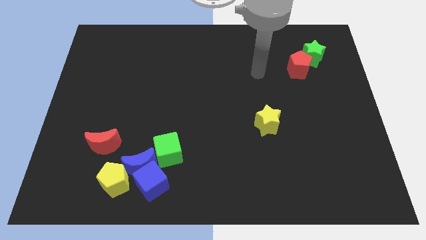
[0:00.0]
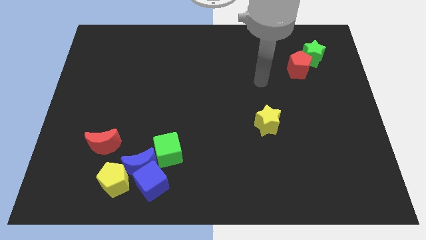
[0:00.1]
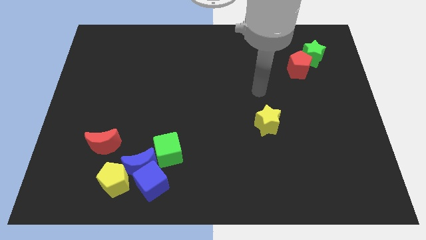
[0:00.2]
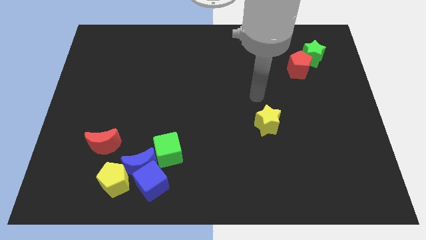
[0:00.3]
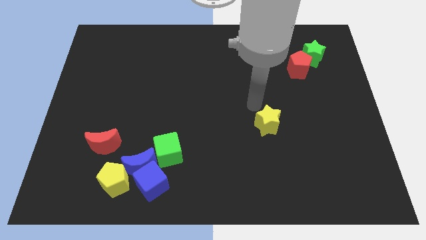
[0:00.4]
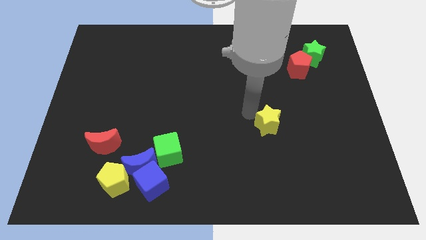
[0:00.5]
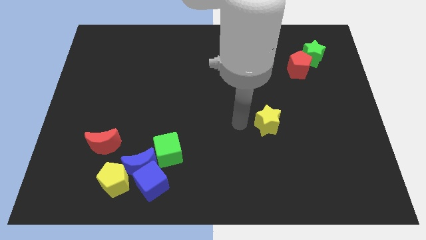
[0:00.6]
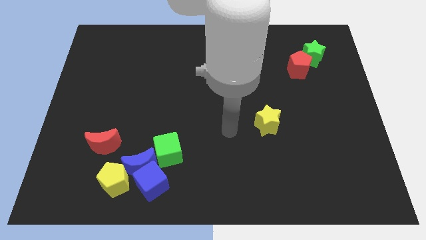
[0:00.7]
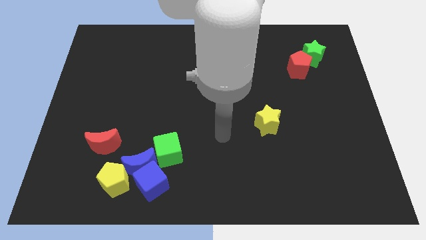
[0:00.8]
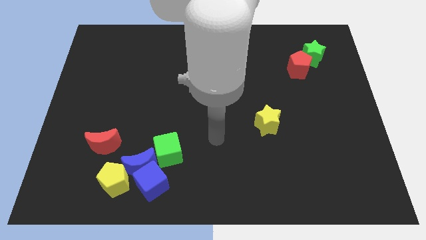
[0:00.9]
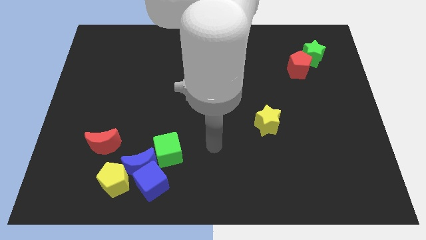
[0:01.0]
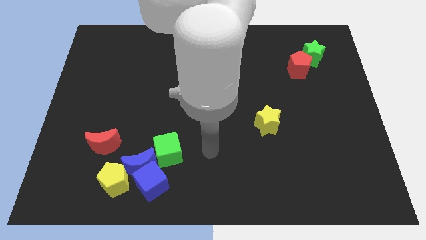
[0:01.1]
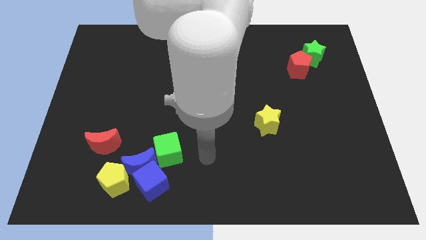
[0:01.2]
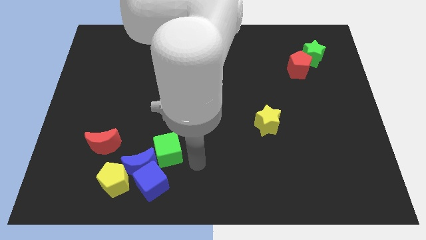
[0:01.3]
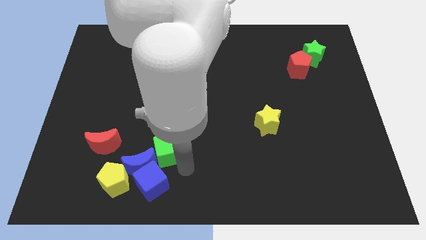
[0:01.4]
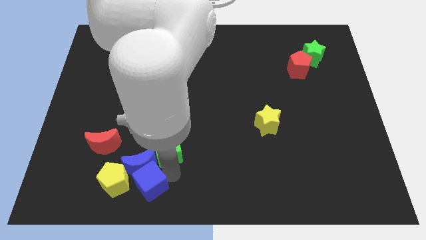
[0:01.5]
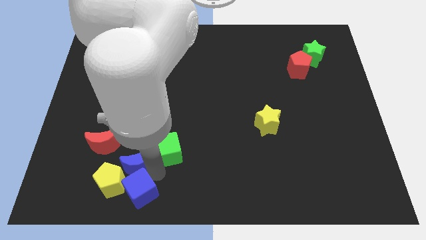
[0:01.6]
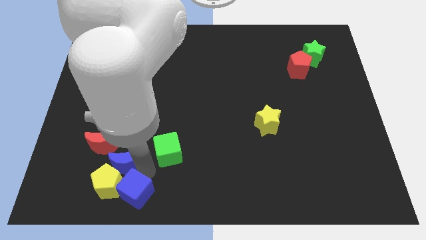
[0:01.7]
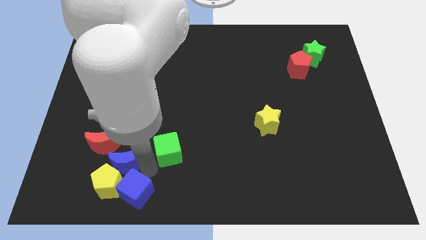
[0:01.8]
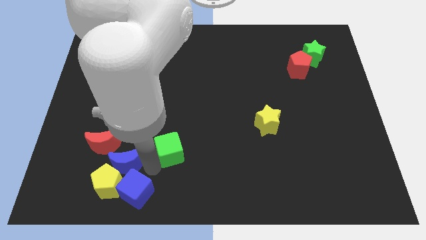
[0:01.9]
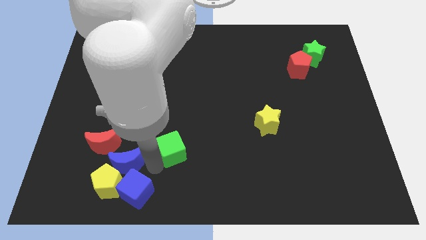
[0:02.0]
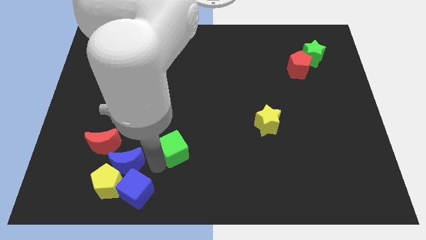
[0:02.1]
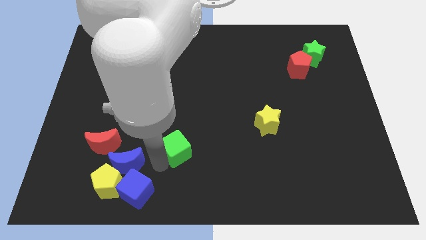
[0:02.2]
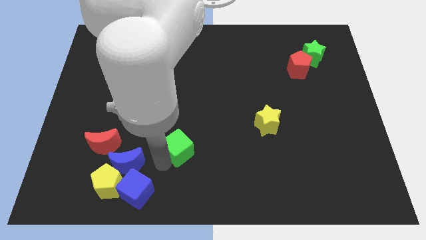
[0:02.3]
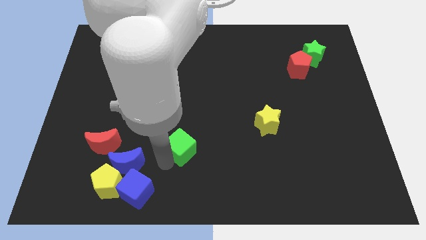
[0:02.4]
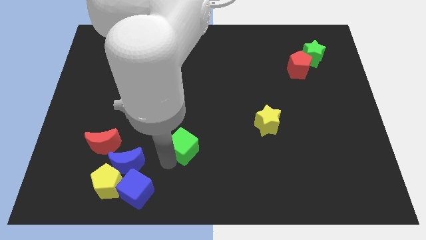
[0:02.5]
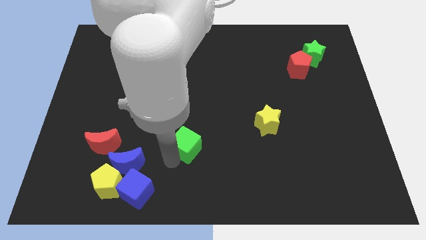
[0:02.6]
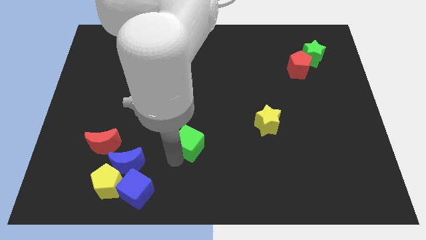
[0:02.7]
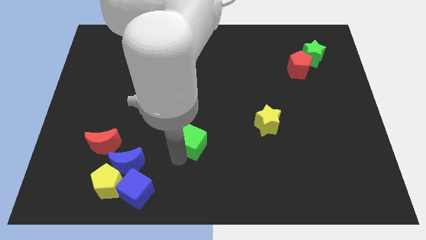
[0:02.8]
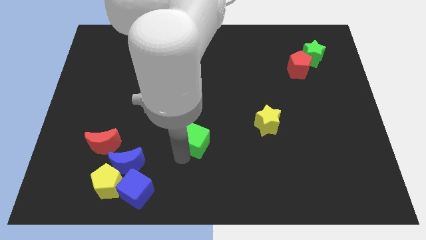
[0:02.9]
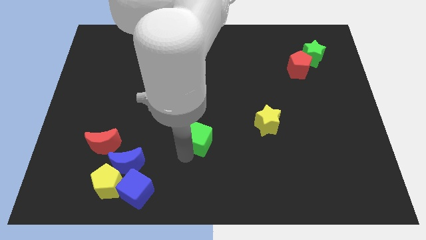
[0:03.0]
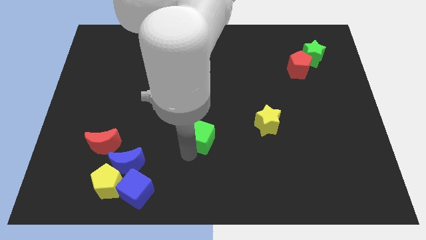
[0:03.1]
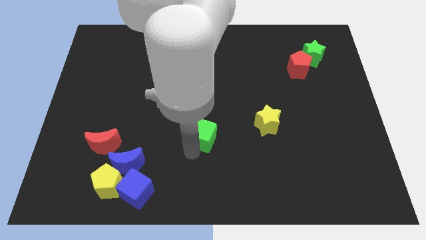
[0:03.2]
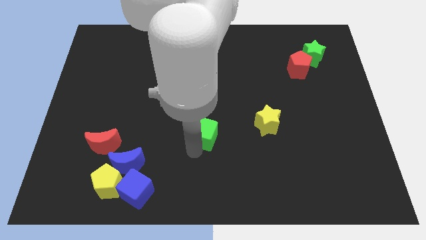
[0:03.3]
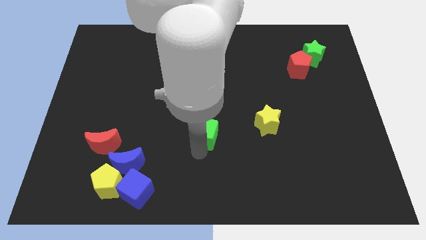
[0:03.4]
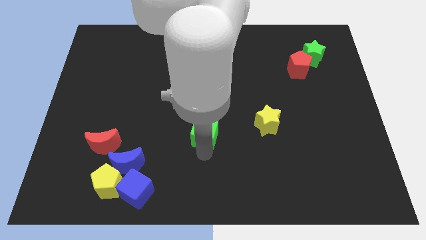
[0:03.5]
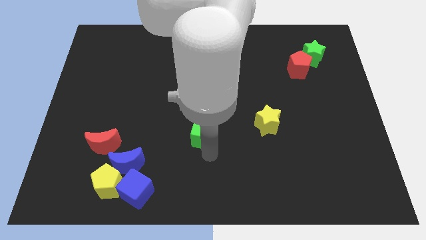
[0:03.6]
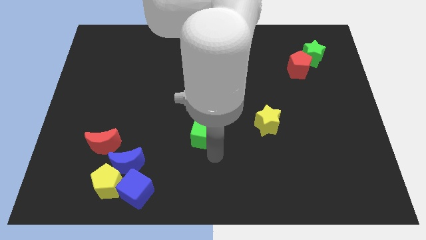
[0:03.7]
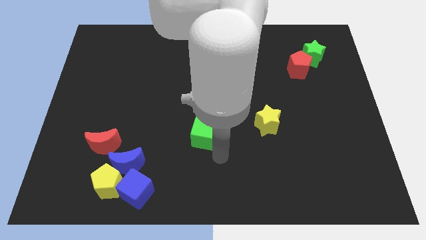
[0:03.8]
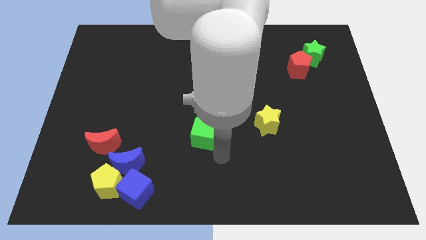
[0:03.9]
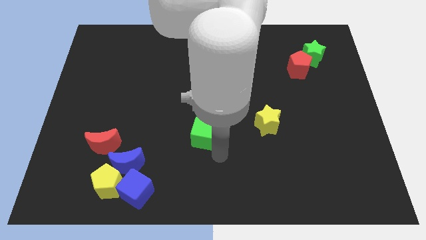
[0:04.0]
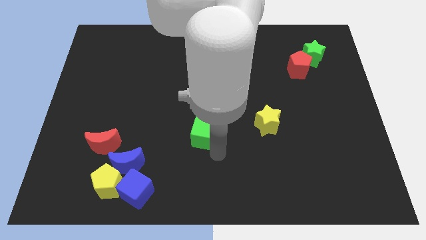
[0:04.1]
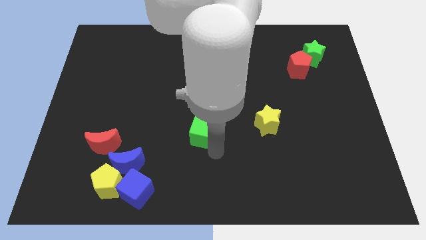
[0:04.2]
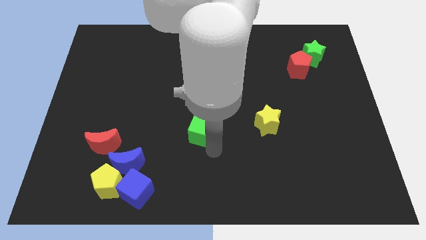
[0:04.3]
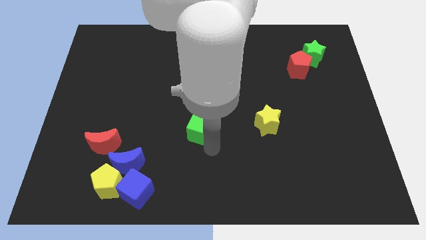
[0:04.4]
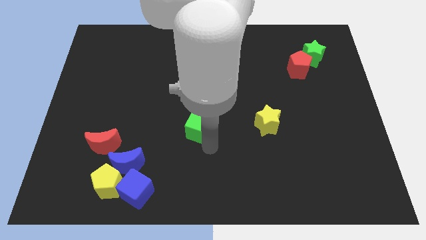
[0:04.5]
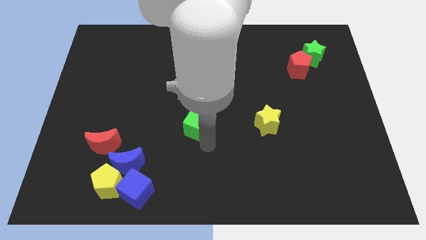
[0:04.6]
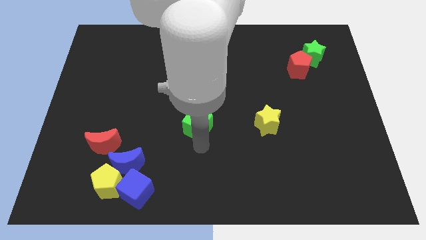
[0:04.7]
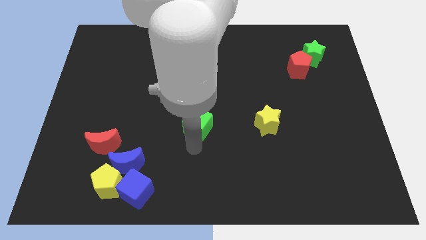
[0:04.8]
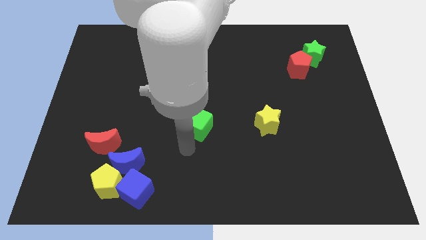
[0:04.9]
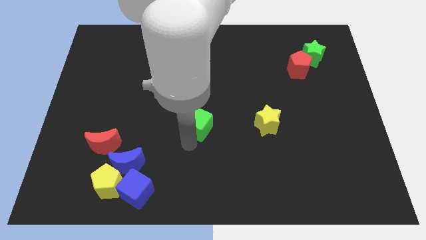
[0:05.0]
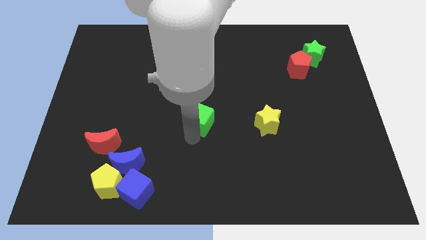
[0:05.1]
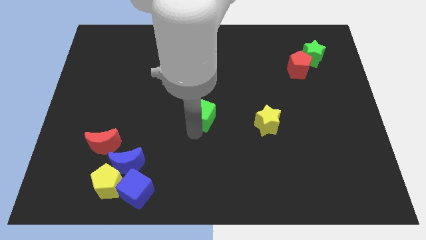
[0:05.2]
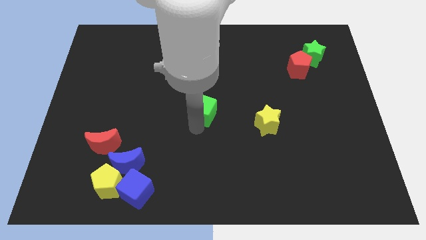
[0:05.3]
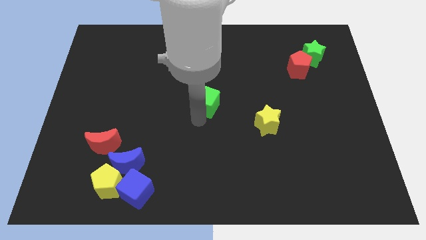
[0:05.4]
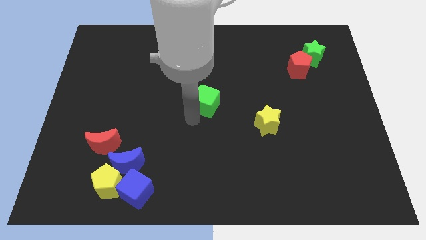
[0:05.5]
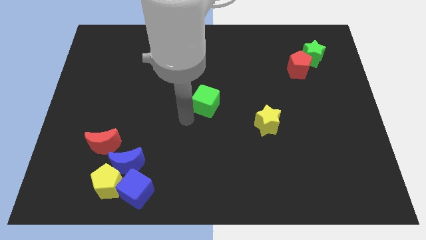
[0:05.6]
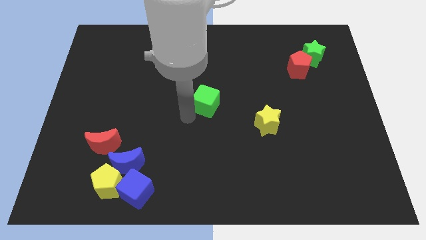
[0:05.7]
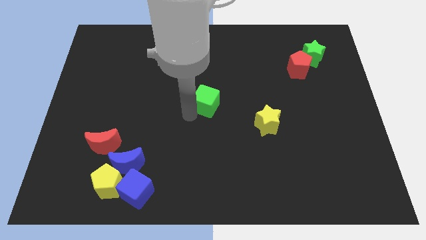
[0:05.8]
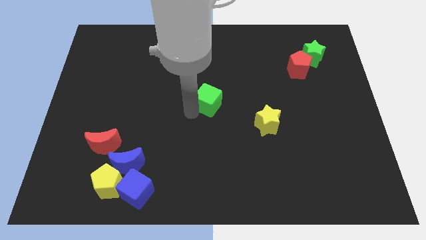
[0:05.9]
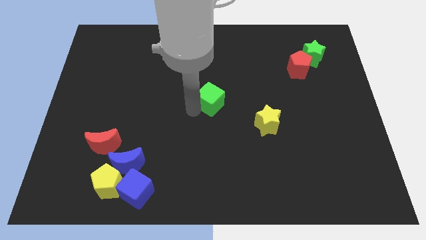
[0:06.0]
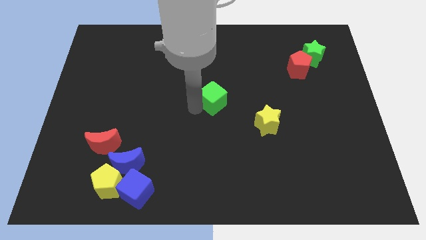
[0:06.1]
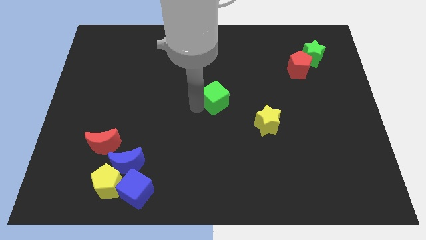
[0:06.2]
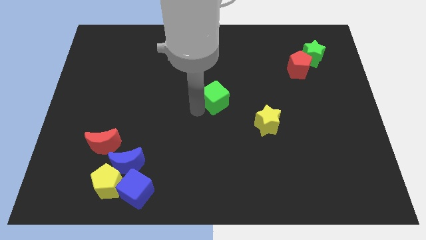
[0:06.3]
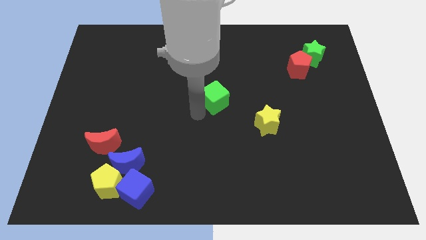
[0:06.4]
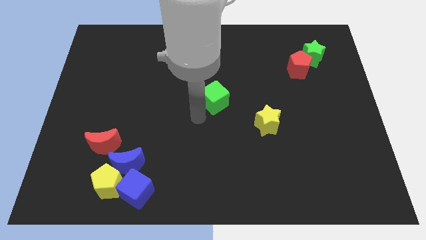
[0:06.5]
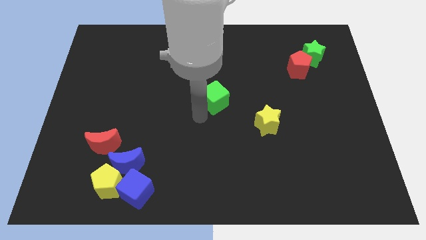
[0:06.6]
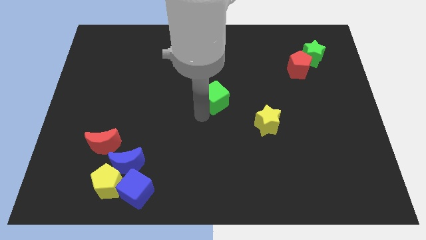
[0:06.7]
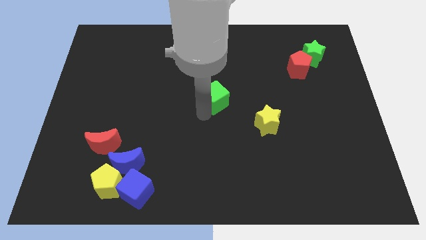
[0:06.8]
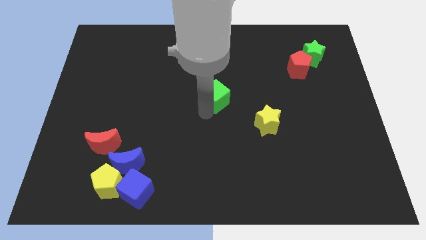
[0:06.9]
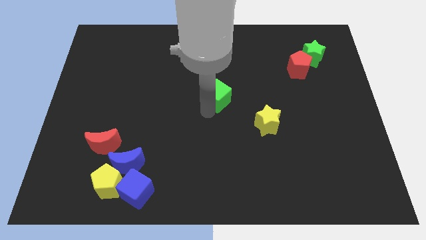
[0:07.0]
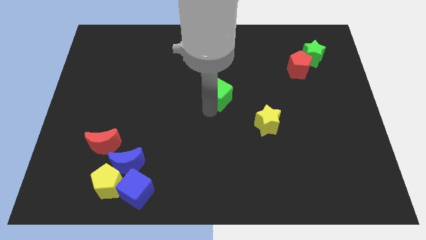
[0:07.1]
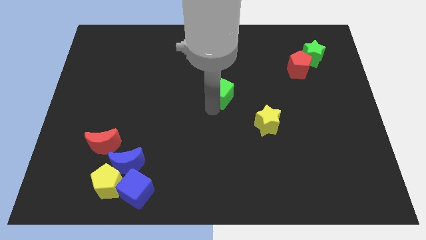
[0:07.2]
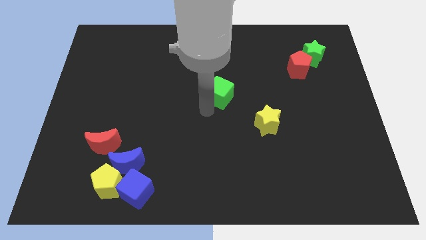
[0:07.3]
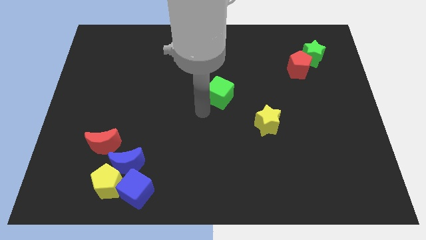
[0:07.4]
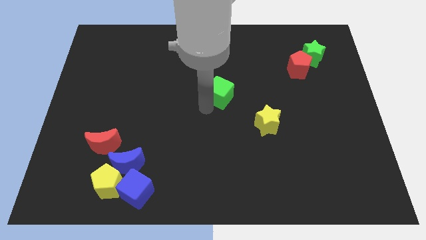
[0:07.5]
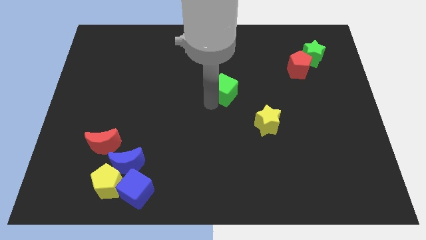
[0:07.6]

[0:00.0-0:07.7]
move the green cube upwards and then to the right

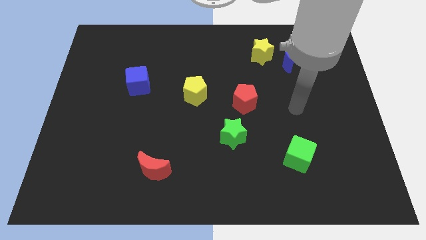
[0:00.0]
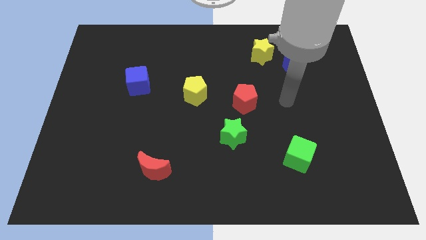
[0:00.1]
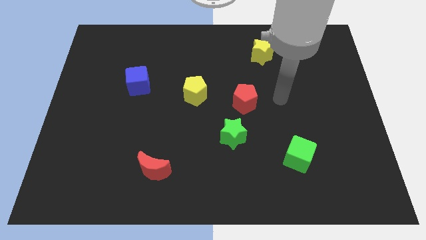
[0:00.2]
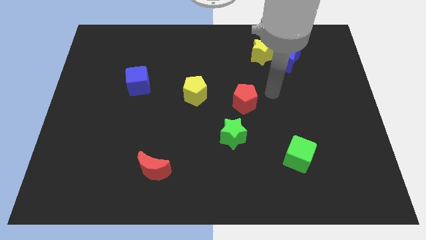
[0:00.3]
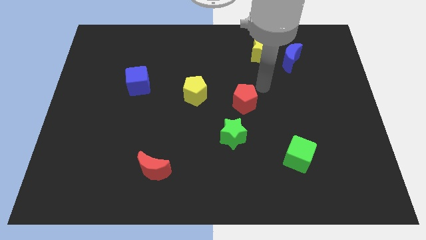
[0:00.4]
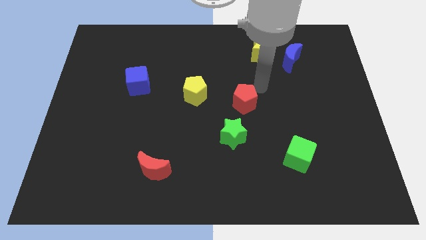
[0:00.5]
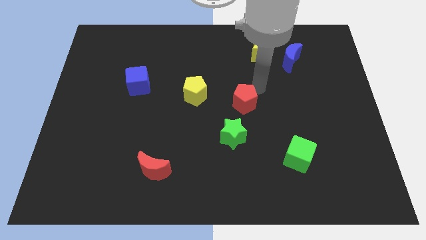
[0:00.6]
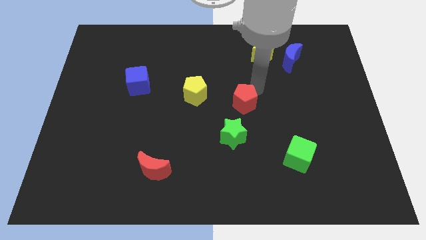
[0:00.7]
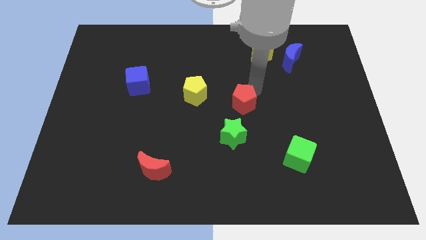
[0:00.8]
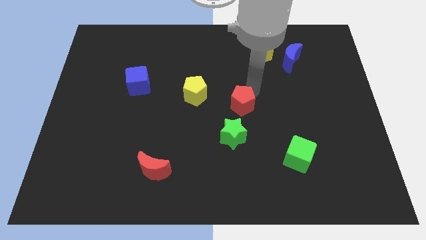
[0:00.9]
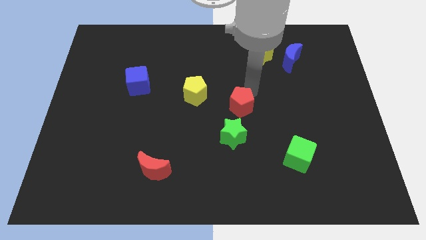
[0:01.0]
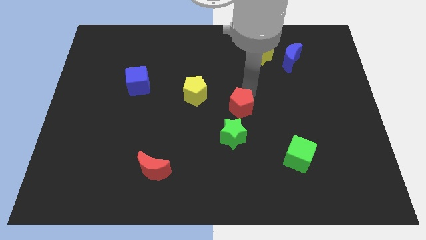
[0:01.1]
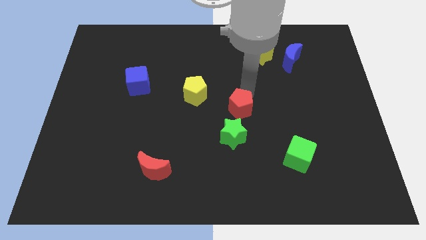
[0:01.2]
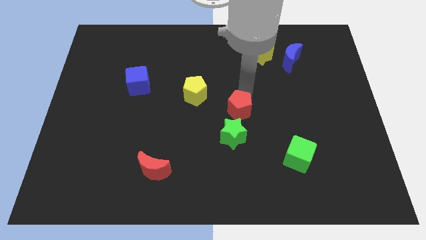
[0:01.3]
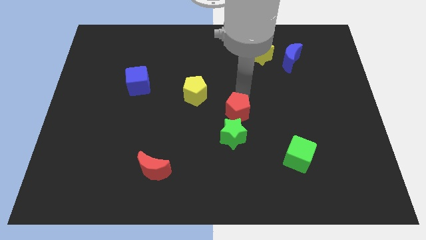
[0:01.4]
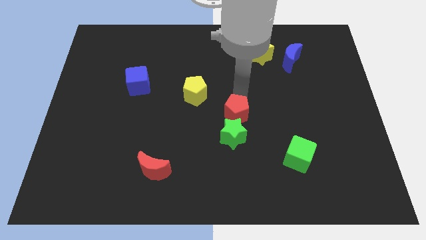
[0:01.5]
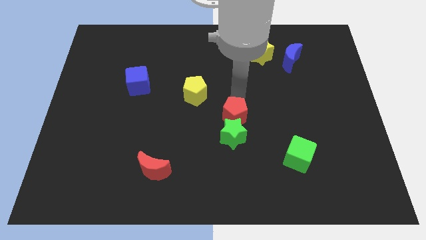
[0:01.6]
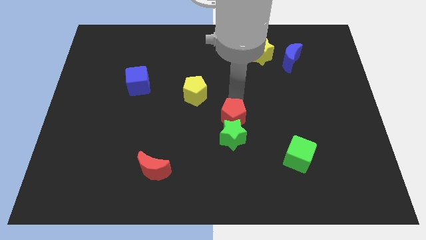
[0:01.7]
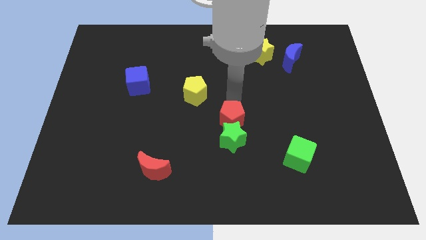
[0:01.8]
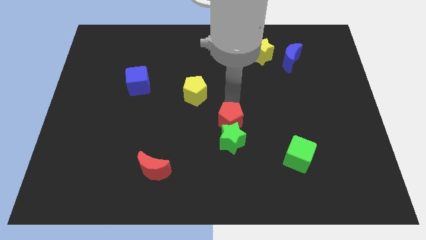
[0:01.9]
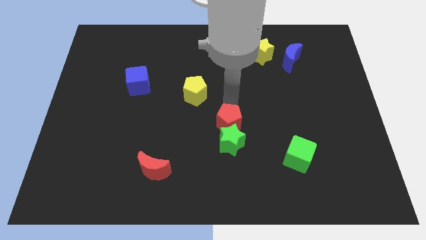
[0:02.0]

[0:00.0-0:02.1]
slide the red pentagon slightly down and left diagonally
